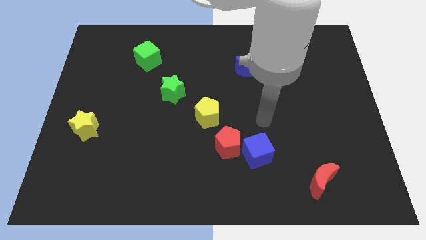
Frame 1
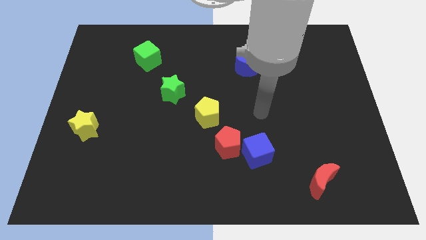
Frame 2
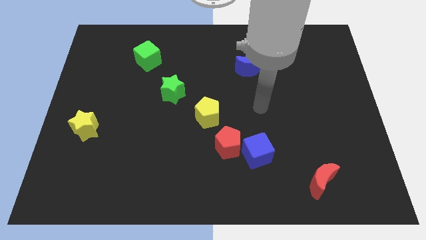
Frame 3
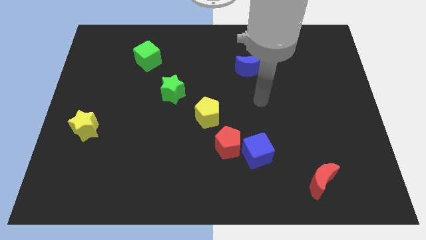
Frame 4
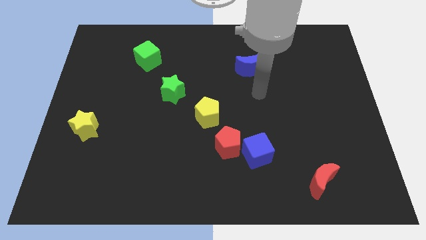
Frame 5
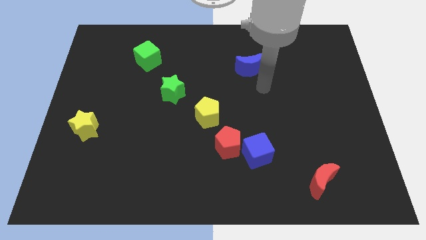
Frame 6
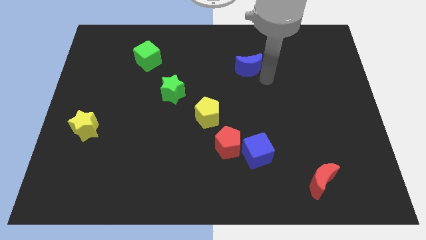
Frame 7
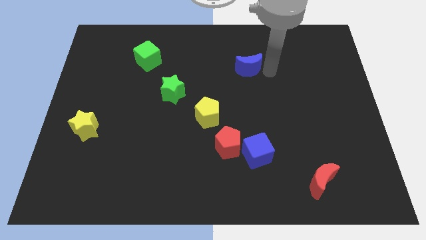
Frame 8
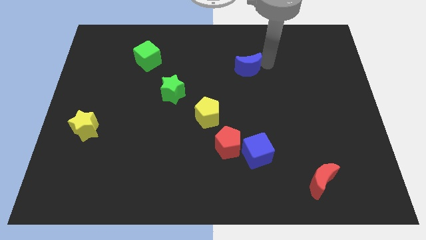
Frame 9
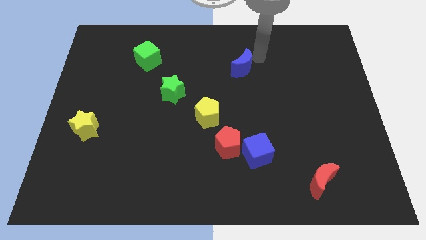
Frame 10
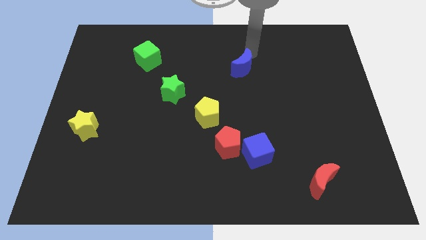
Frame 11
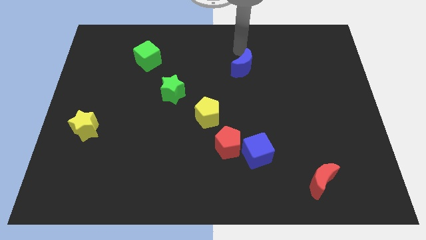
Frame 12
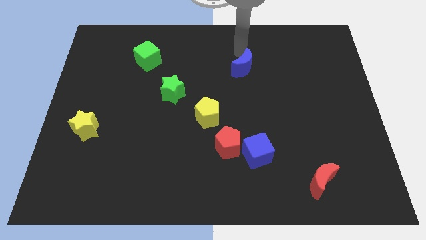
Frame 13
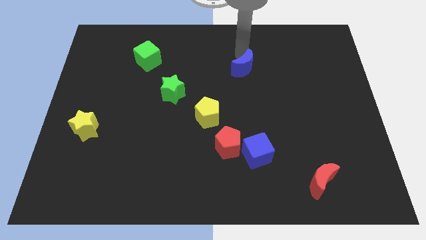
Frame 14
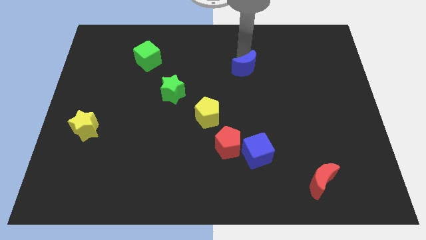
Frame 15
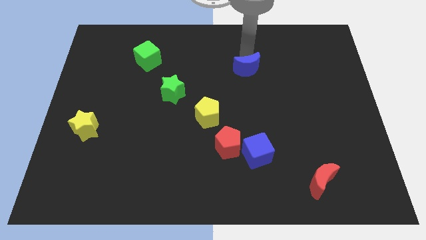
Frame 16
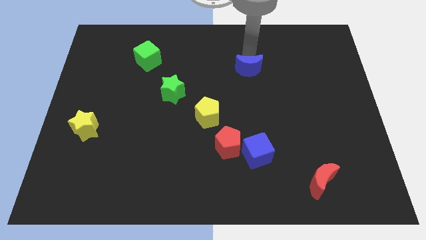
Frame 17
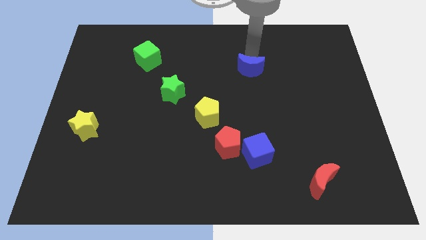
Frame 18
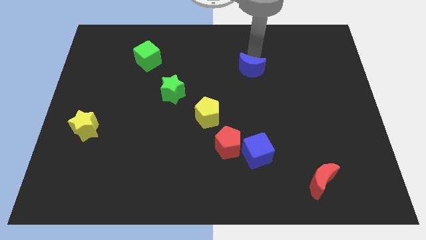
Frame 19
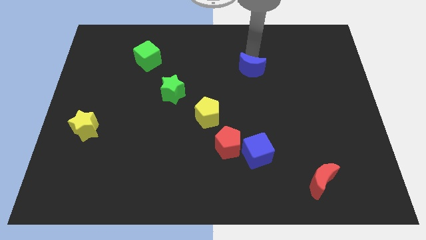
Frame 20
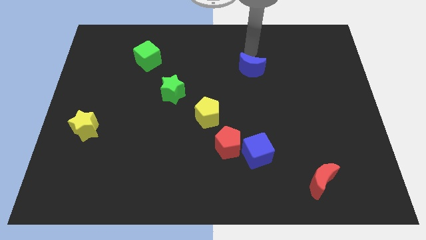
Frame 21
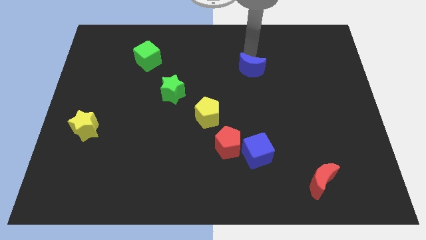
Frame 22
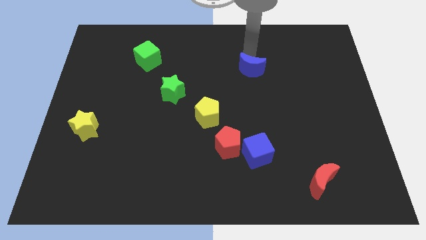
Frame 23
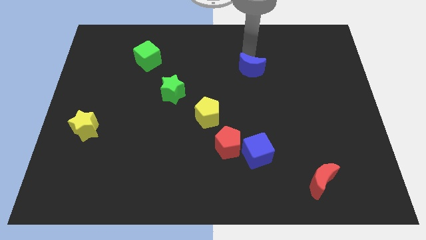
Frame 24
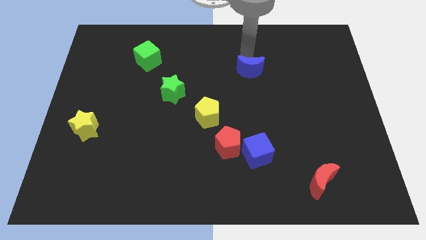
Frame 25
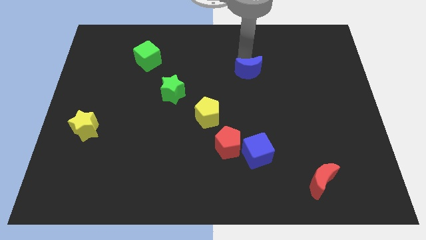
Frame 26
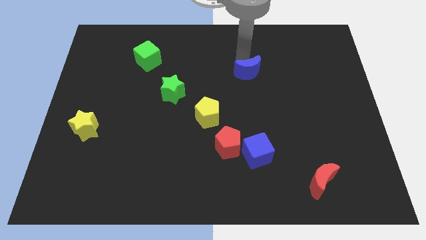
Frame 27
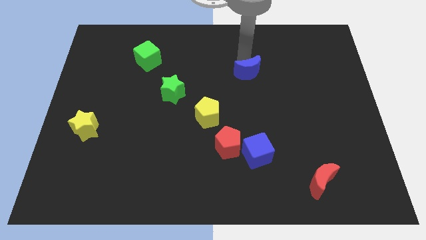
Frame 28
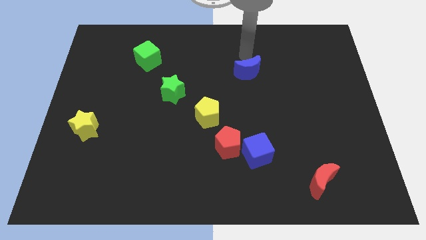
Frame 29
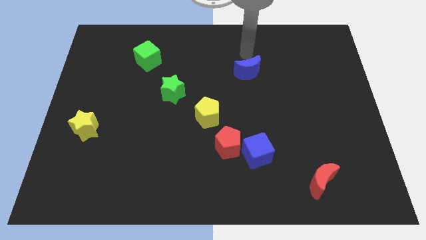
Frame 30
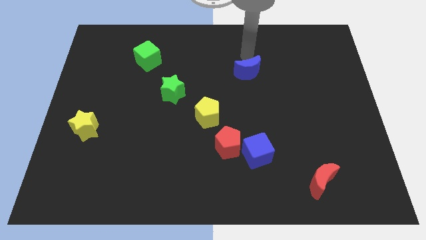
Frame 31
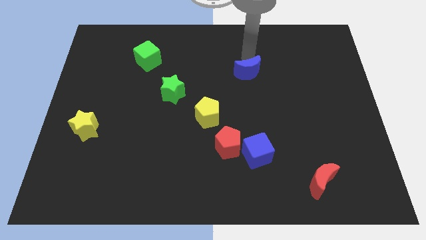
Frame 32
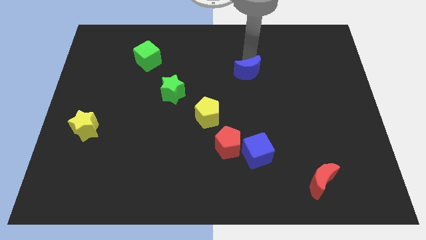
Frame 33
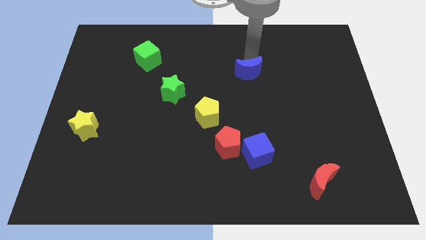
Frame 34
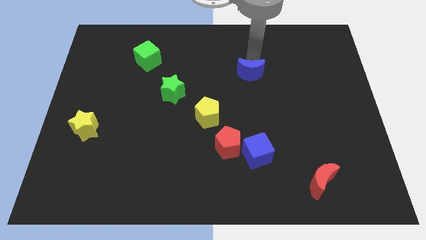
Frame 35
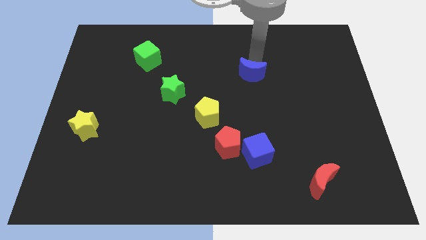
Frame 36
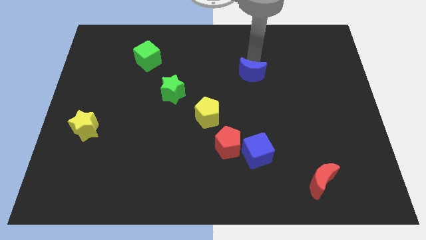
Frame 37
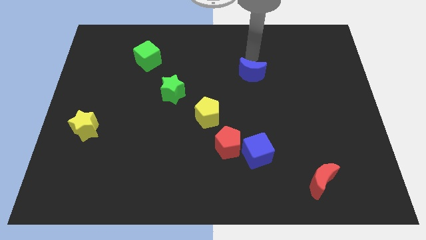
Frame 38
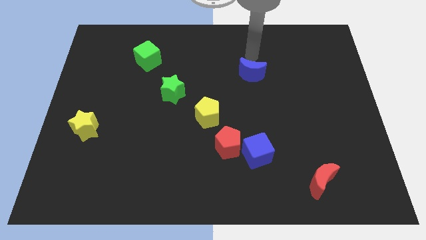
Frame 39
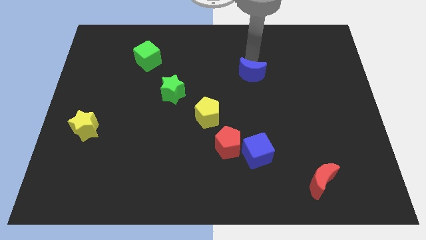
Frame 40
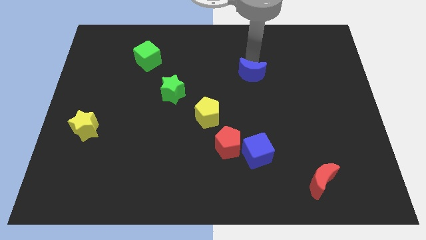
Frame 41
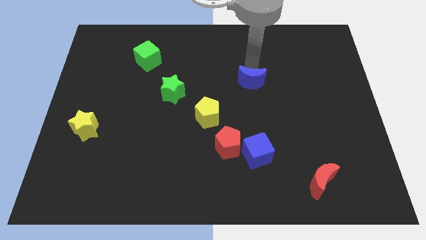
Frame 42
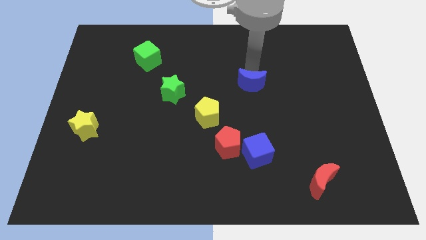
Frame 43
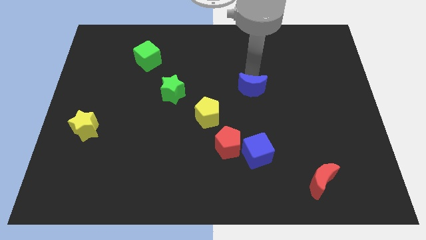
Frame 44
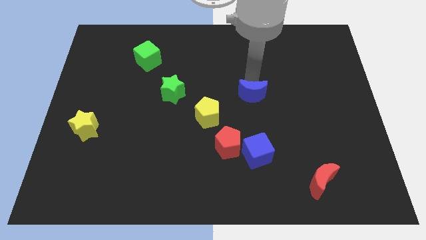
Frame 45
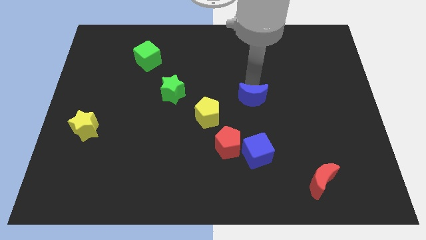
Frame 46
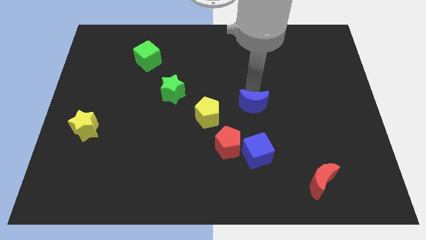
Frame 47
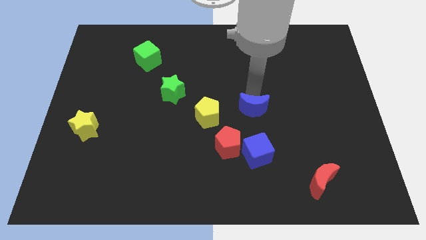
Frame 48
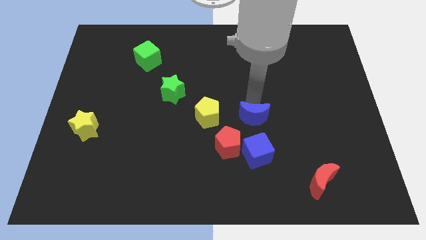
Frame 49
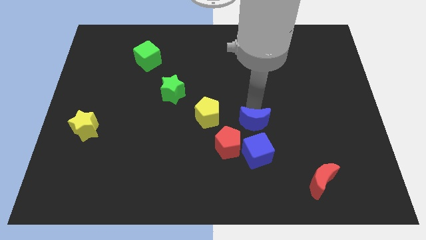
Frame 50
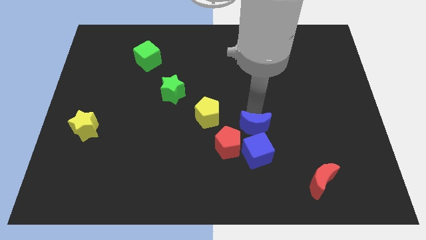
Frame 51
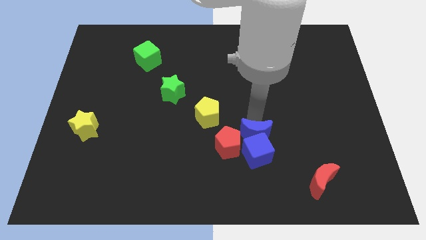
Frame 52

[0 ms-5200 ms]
move the blue moon to the blue cube

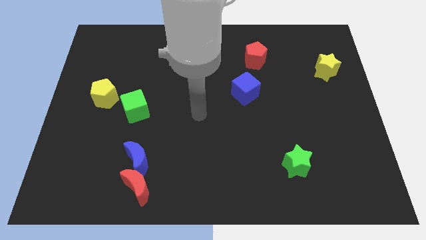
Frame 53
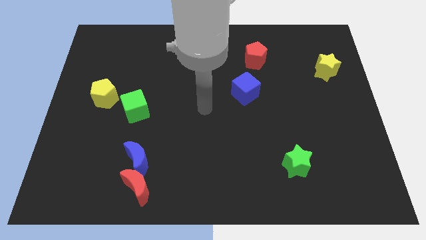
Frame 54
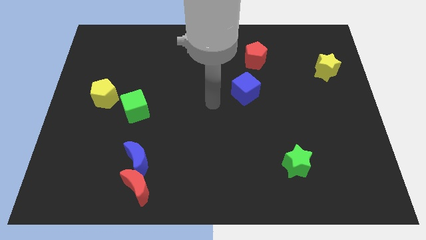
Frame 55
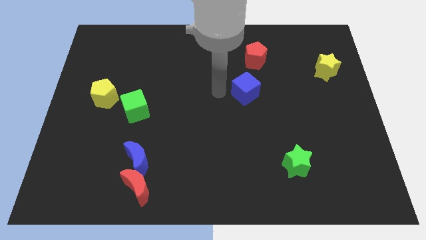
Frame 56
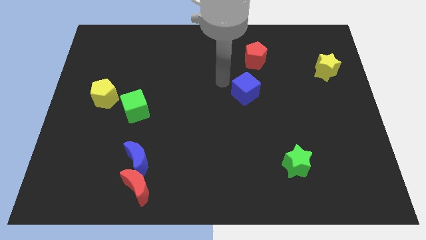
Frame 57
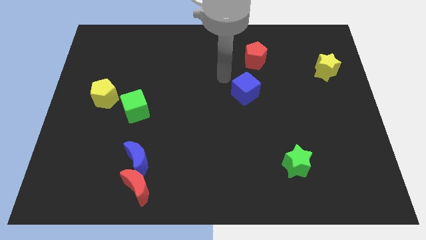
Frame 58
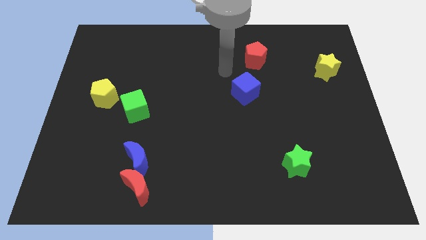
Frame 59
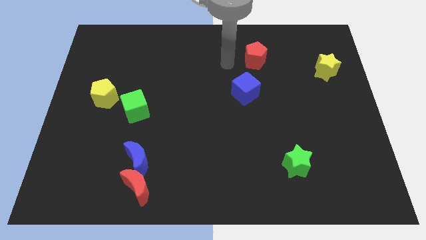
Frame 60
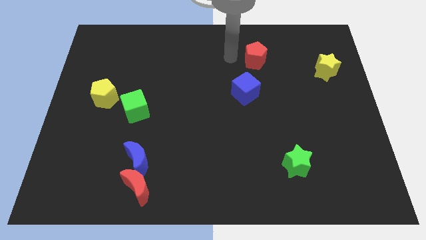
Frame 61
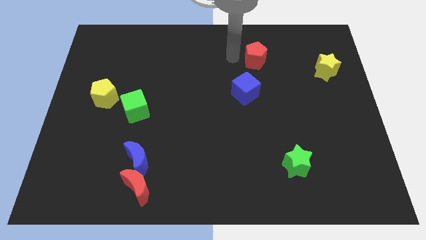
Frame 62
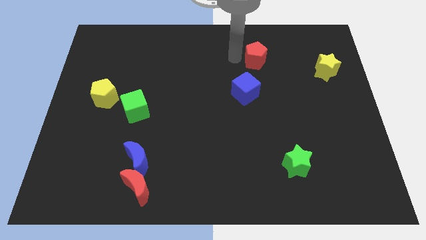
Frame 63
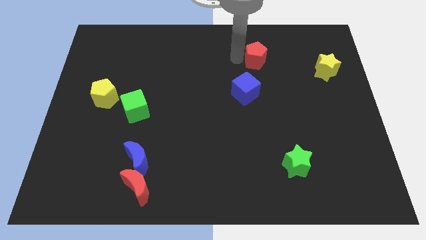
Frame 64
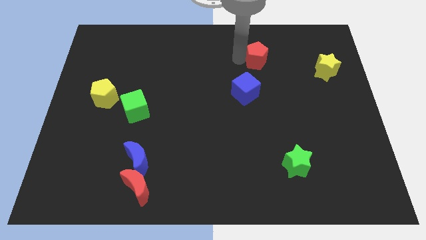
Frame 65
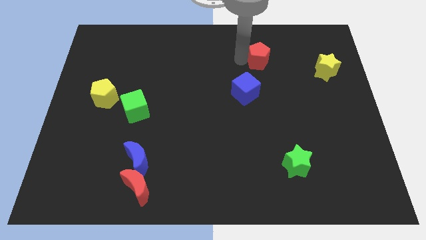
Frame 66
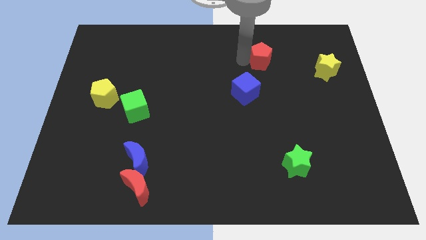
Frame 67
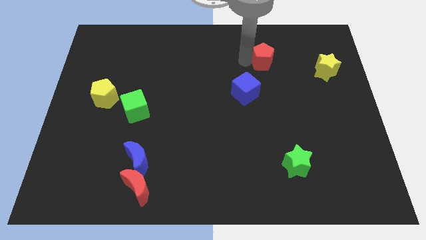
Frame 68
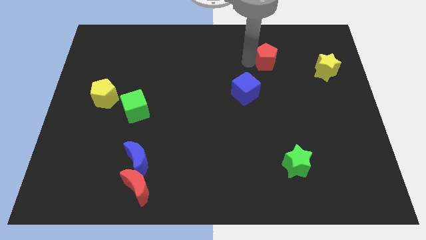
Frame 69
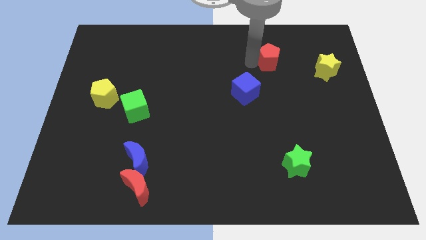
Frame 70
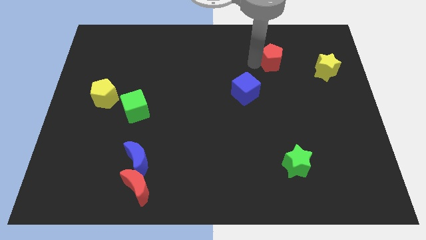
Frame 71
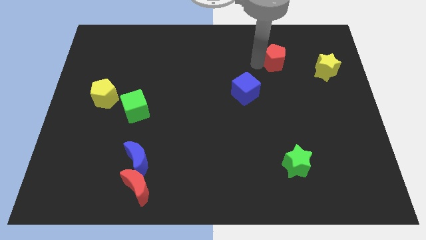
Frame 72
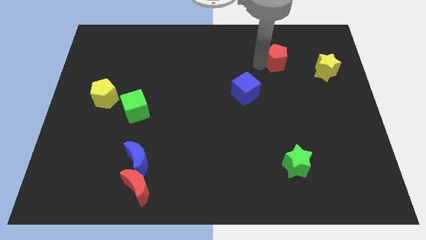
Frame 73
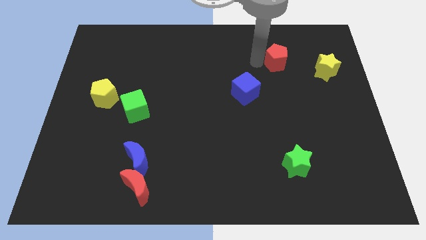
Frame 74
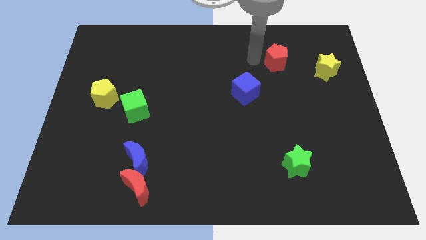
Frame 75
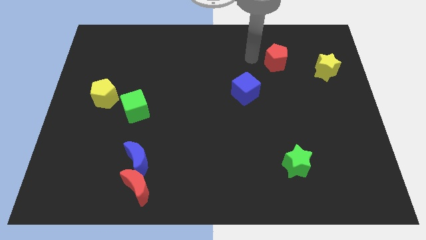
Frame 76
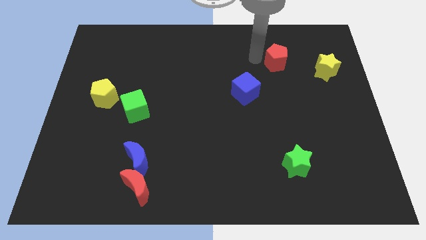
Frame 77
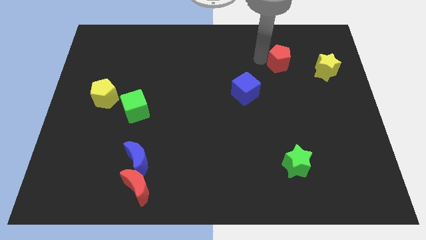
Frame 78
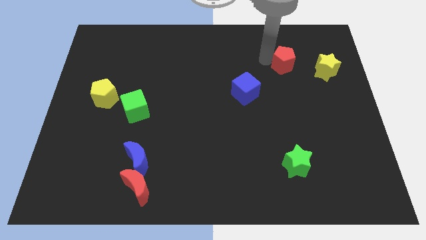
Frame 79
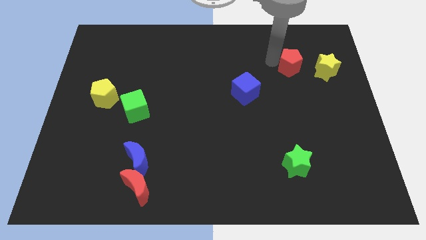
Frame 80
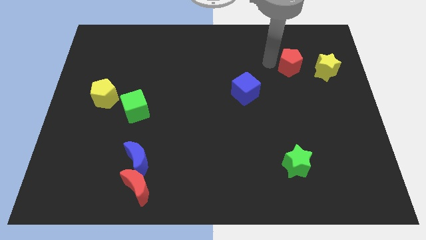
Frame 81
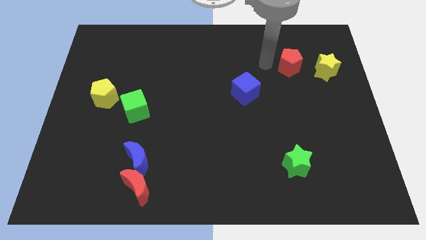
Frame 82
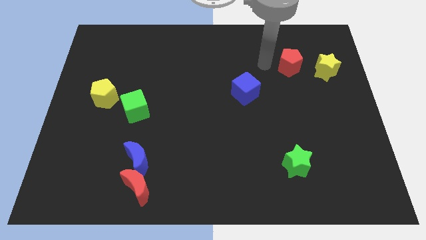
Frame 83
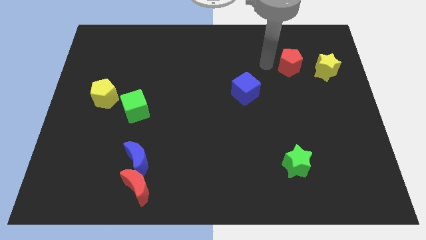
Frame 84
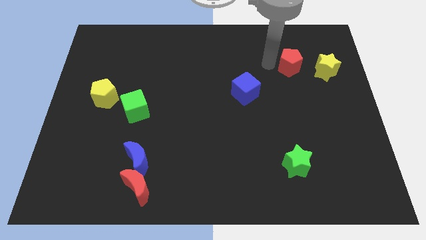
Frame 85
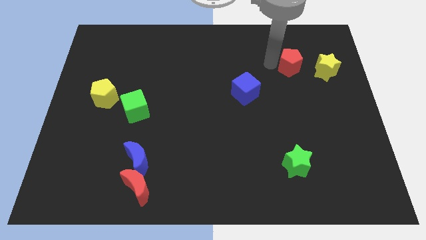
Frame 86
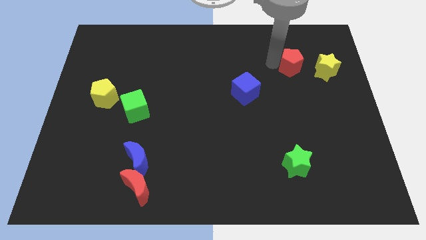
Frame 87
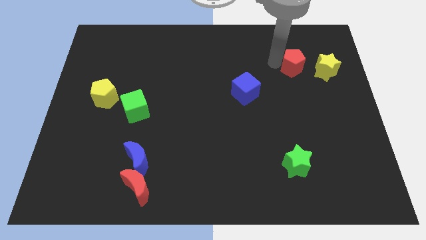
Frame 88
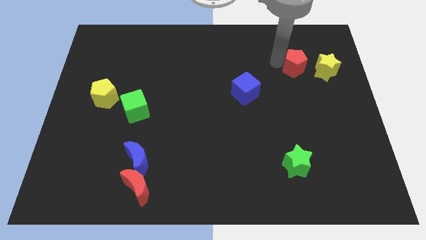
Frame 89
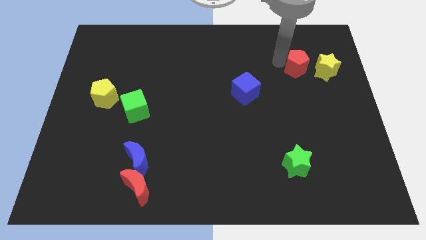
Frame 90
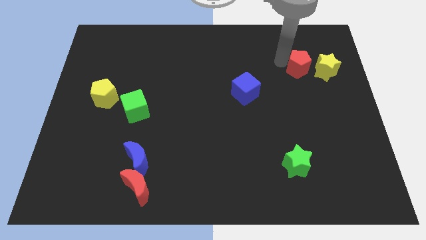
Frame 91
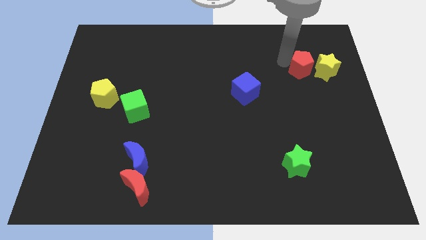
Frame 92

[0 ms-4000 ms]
slide the red pentagon next to the yellow star
